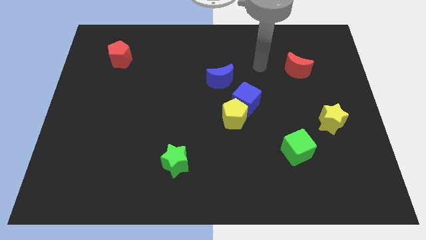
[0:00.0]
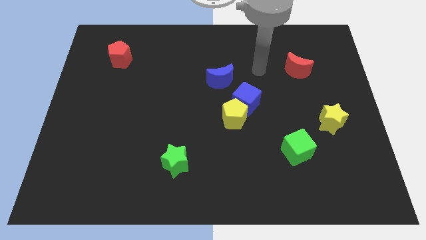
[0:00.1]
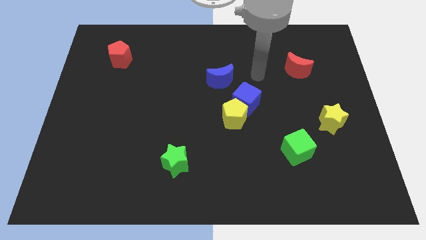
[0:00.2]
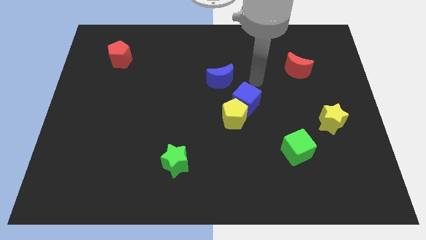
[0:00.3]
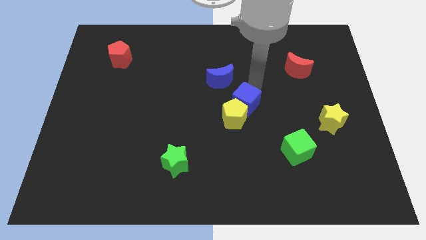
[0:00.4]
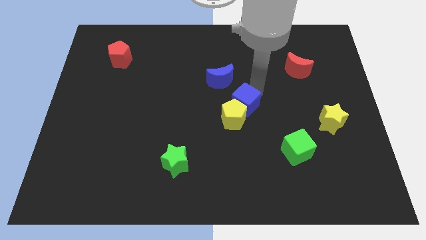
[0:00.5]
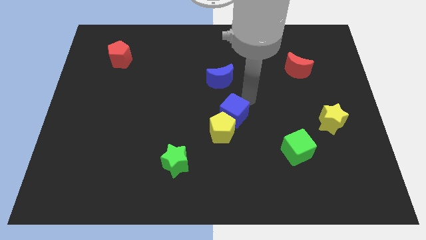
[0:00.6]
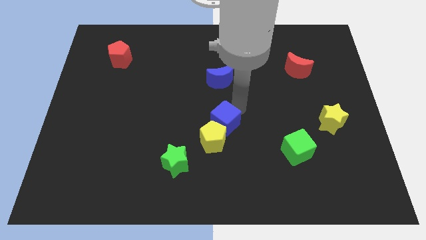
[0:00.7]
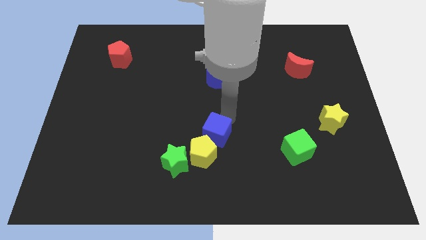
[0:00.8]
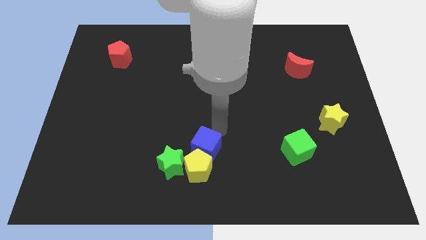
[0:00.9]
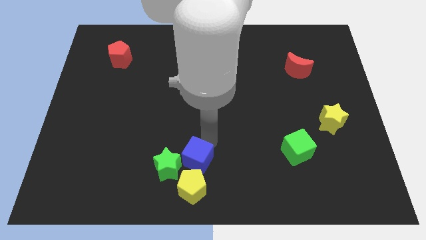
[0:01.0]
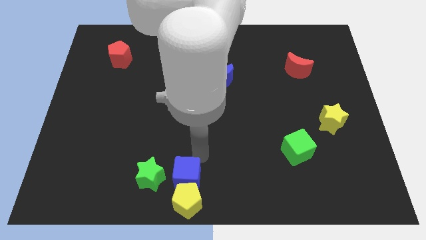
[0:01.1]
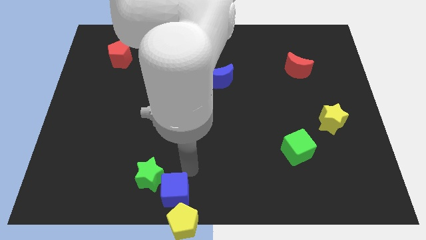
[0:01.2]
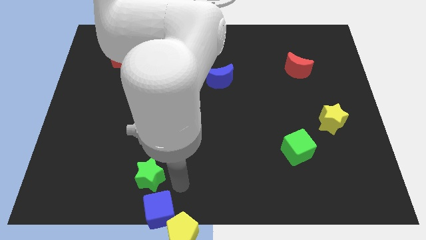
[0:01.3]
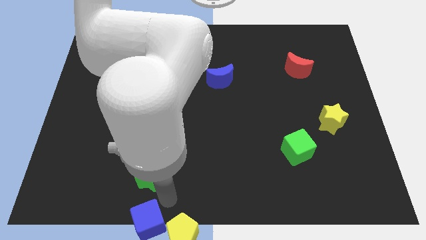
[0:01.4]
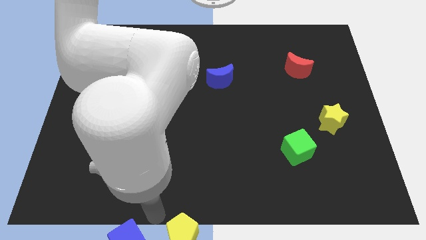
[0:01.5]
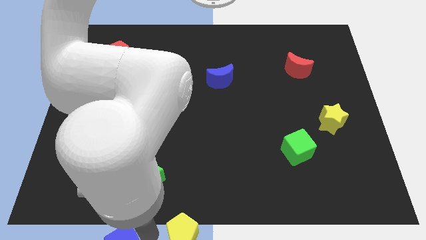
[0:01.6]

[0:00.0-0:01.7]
pull the yellow pentagon apart from the blue cube

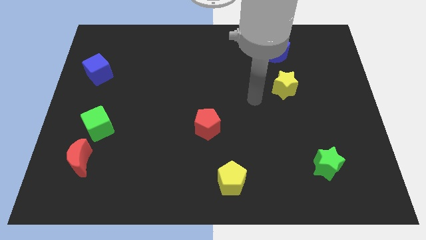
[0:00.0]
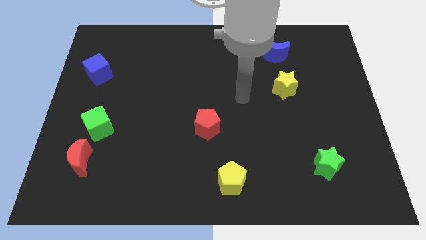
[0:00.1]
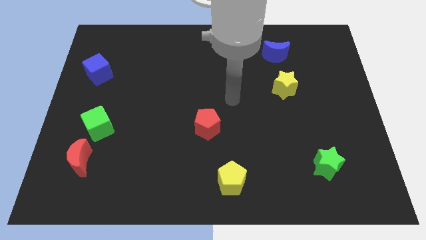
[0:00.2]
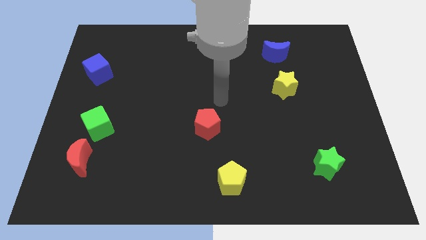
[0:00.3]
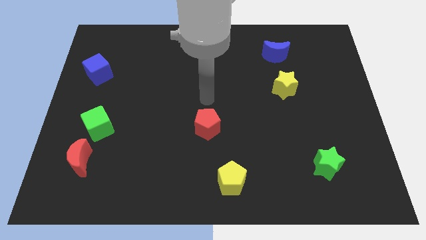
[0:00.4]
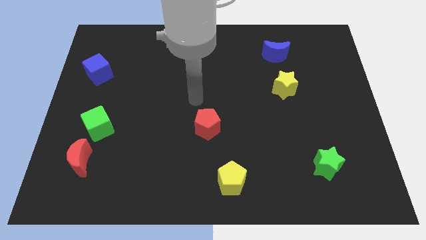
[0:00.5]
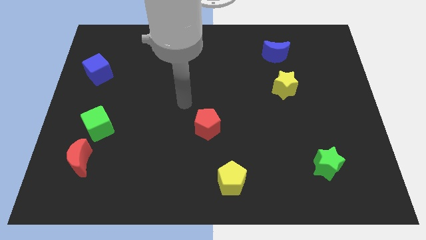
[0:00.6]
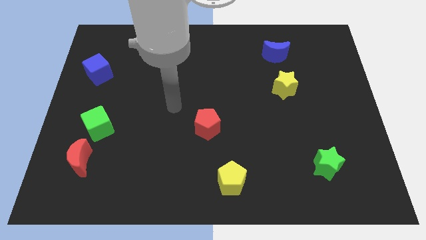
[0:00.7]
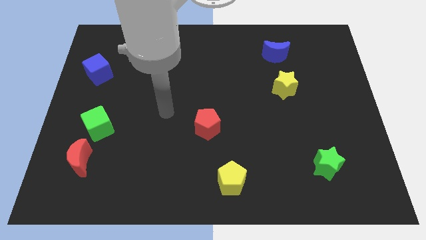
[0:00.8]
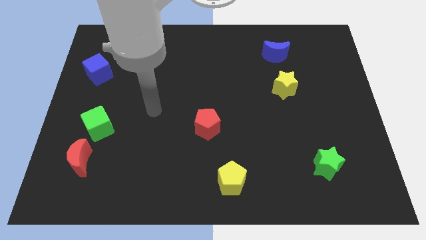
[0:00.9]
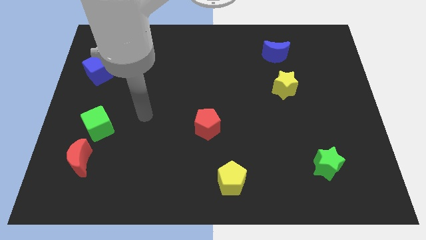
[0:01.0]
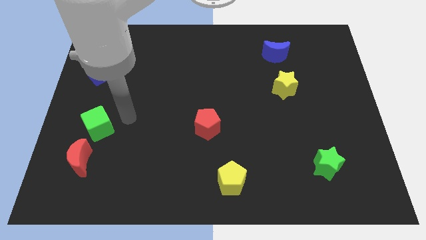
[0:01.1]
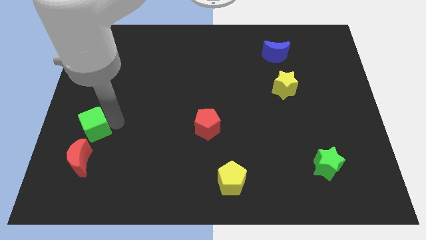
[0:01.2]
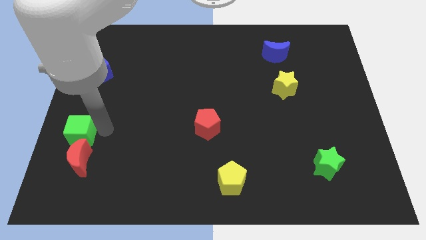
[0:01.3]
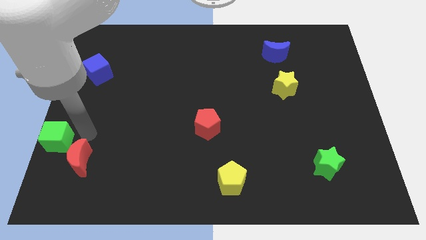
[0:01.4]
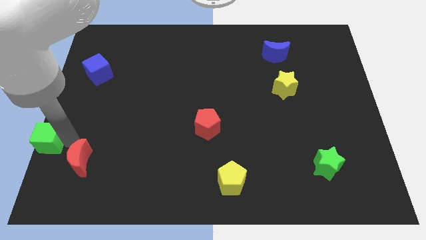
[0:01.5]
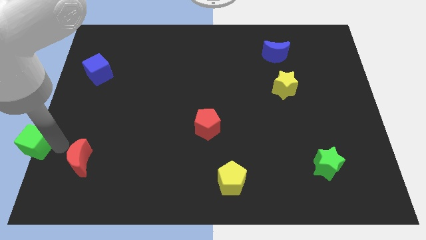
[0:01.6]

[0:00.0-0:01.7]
move the red moon away from the green cube

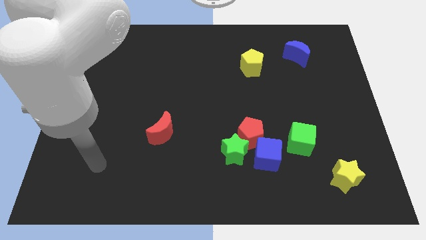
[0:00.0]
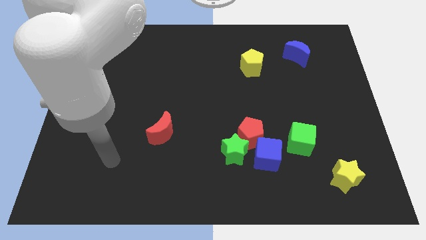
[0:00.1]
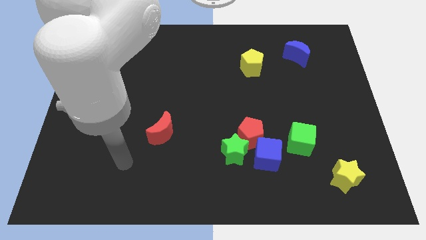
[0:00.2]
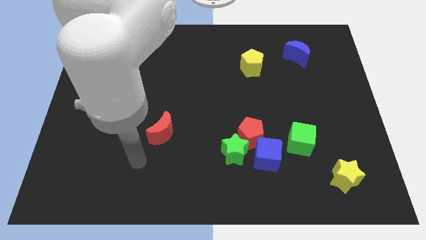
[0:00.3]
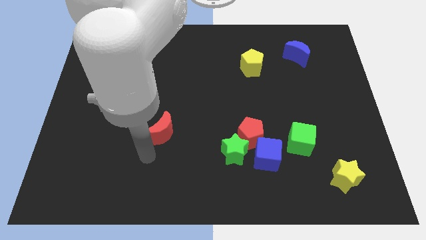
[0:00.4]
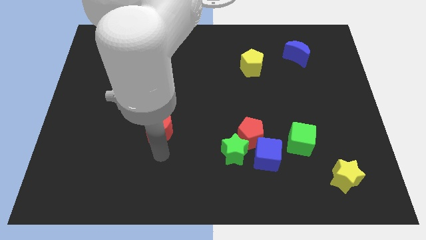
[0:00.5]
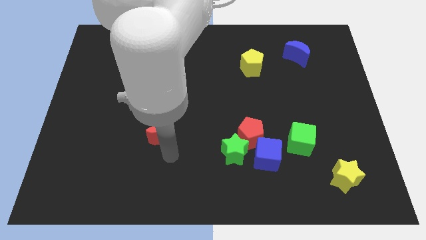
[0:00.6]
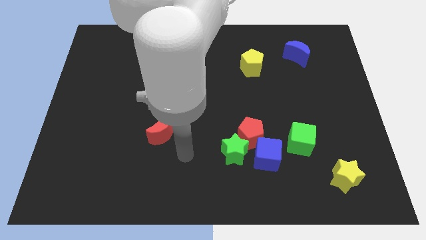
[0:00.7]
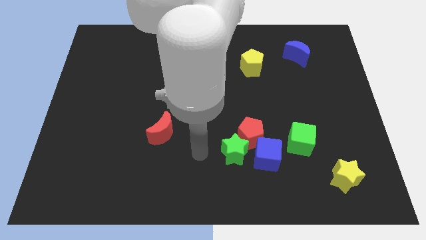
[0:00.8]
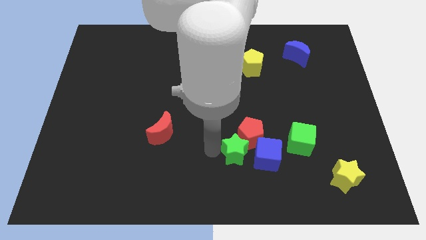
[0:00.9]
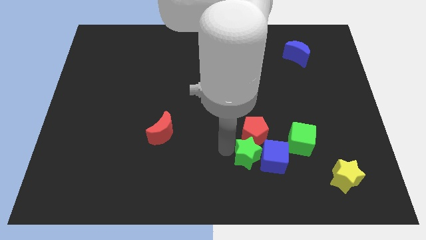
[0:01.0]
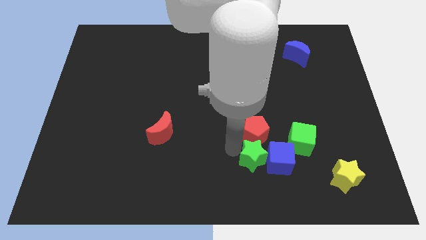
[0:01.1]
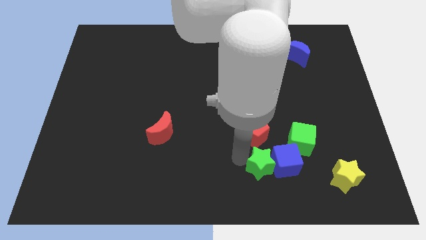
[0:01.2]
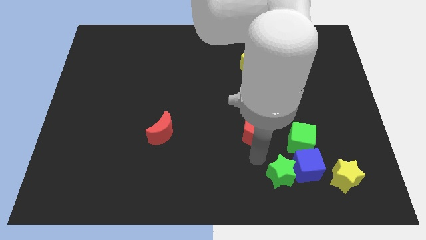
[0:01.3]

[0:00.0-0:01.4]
move the red pentagon away from the green star and blue cube

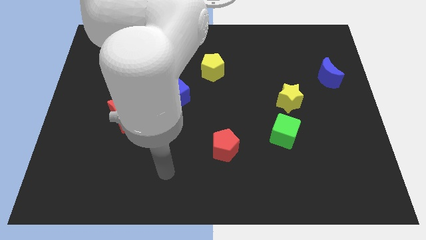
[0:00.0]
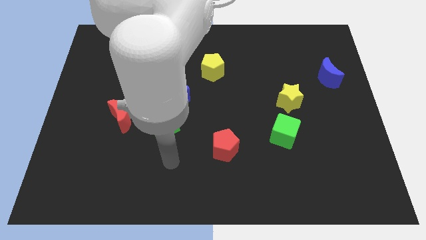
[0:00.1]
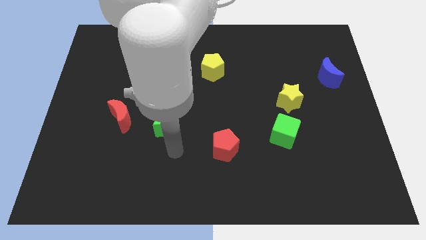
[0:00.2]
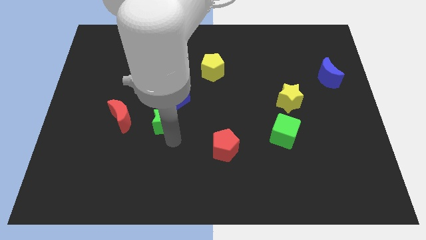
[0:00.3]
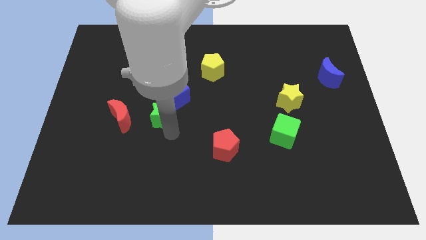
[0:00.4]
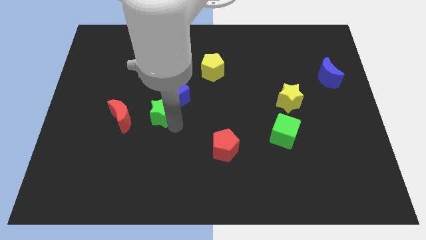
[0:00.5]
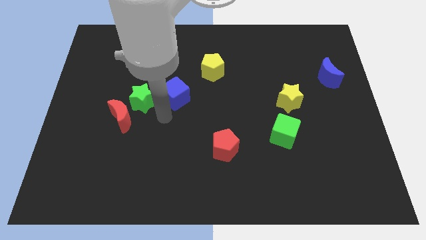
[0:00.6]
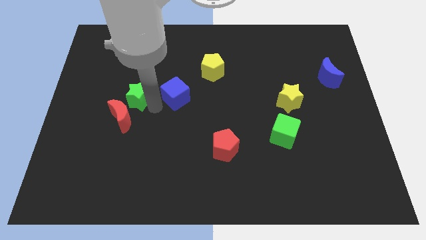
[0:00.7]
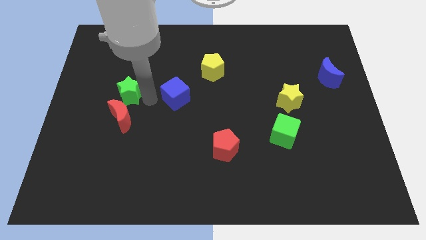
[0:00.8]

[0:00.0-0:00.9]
pull the blue cube apart from the green star

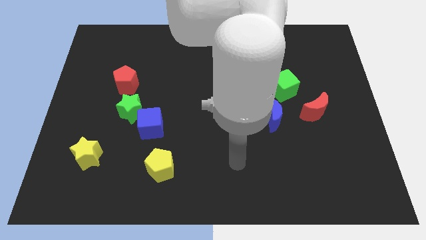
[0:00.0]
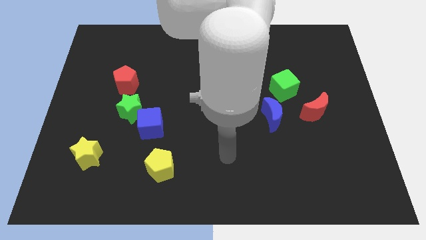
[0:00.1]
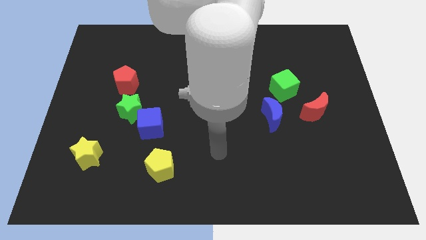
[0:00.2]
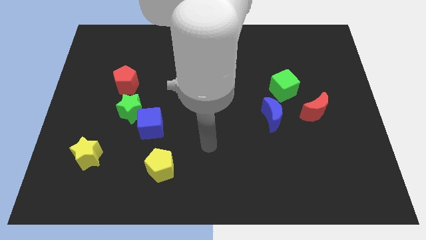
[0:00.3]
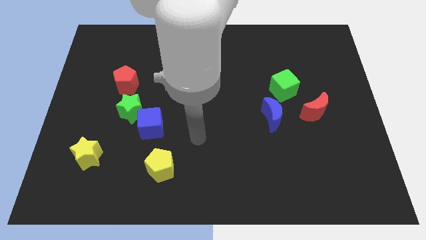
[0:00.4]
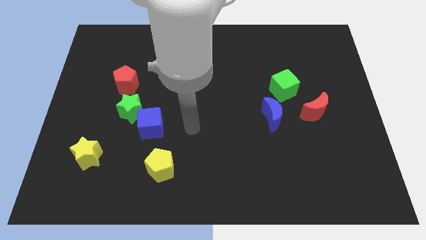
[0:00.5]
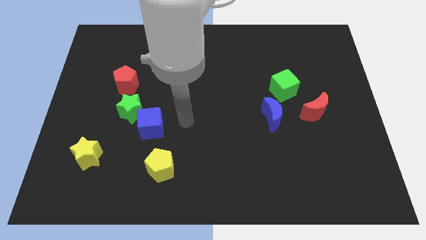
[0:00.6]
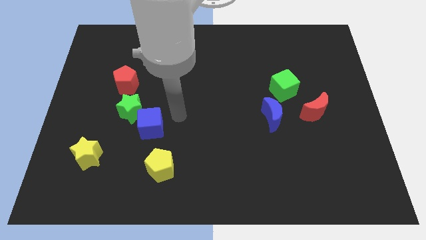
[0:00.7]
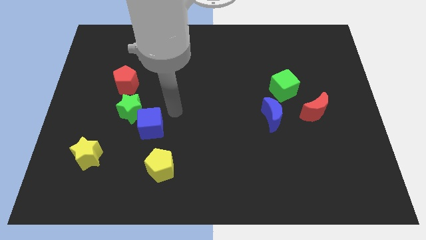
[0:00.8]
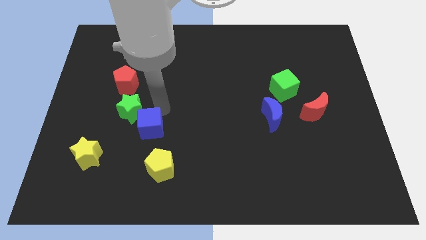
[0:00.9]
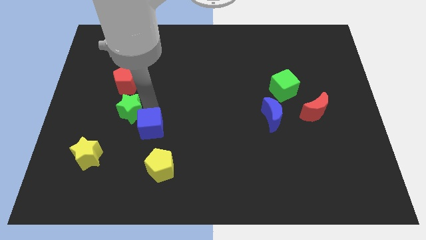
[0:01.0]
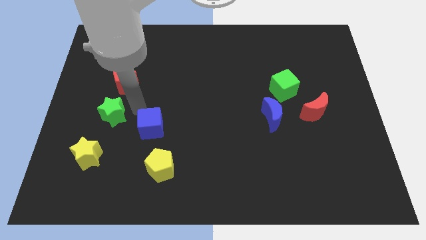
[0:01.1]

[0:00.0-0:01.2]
move the blue cube away from the green star

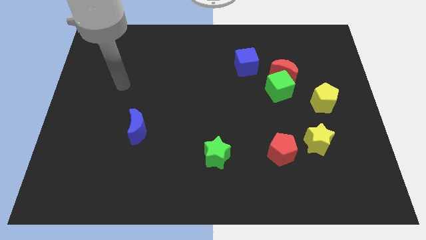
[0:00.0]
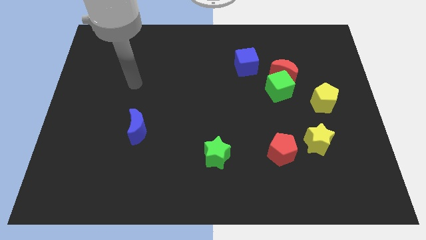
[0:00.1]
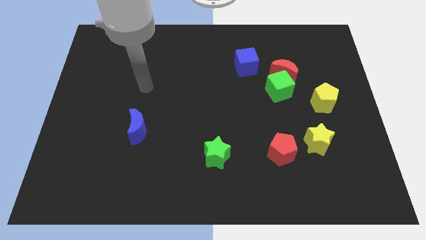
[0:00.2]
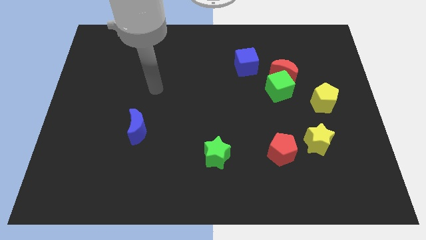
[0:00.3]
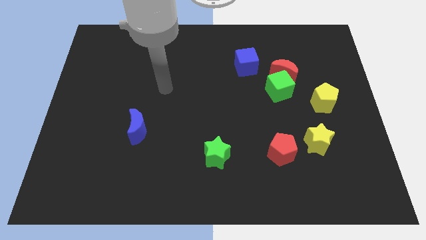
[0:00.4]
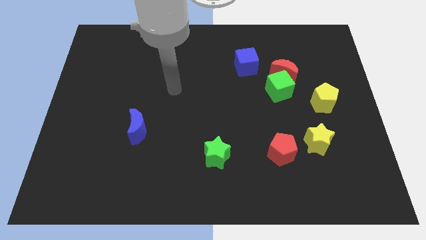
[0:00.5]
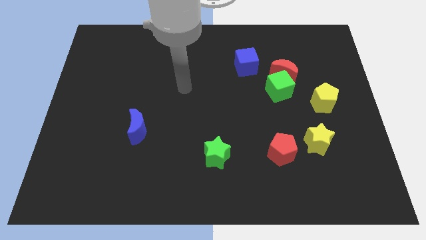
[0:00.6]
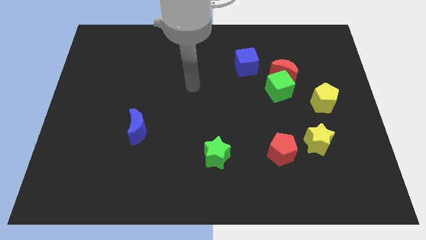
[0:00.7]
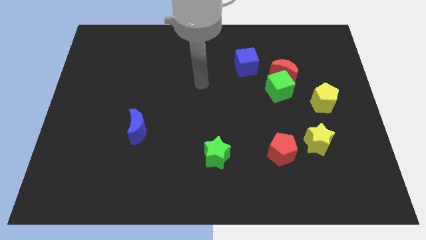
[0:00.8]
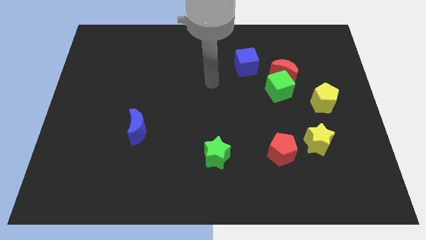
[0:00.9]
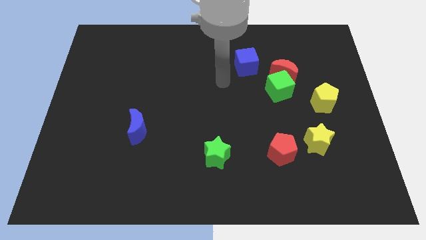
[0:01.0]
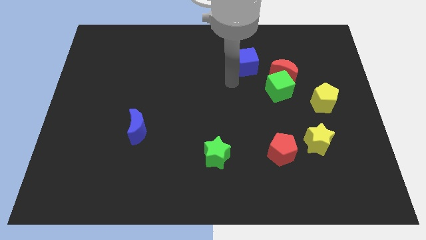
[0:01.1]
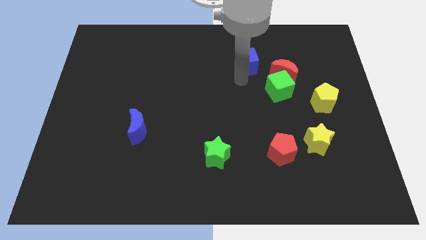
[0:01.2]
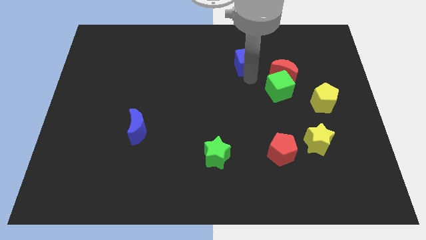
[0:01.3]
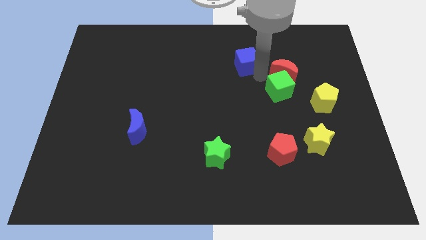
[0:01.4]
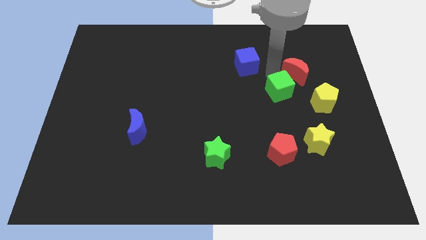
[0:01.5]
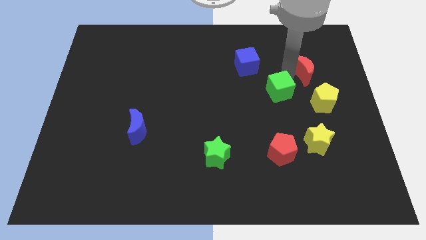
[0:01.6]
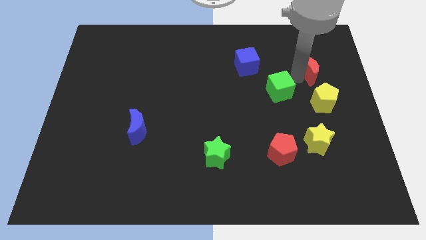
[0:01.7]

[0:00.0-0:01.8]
pull the green cube apart from the red moon

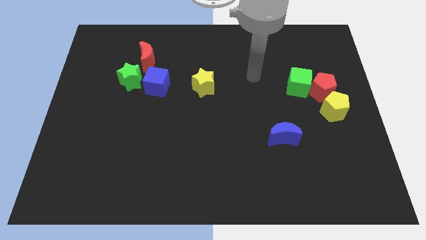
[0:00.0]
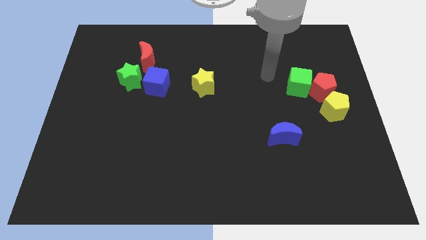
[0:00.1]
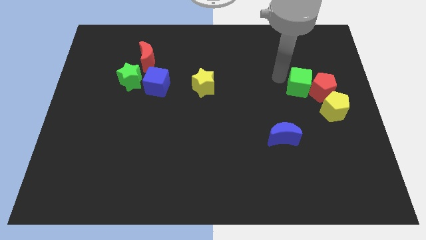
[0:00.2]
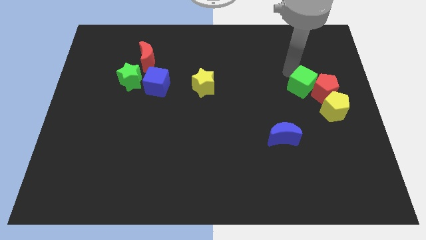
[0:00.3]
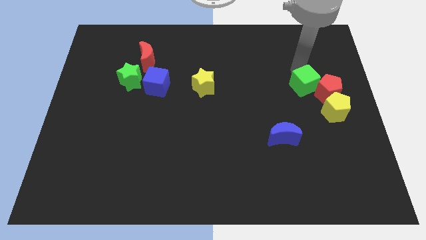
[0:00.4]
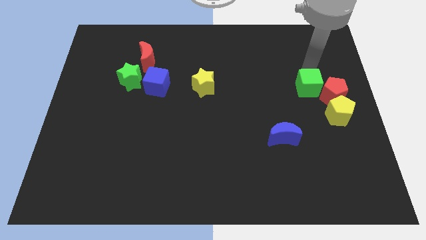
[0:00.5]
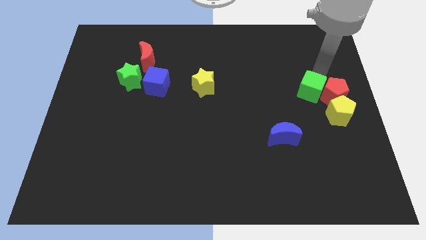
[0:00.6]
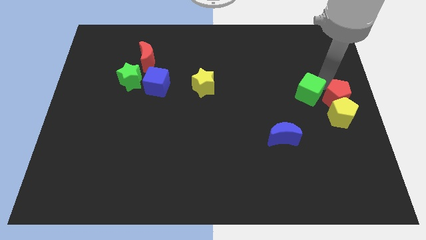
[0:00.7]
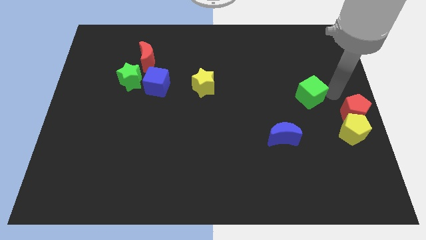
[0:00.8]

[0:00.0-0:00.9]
separate the green cube from the red pentagon
